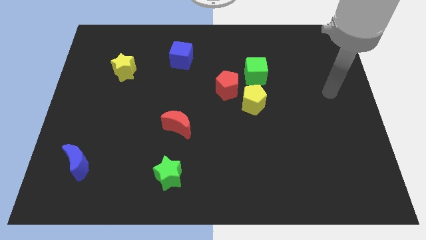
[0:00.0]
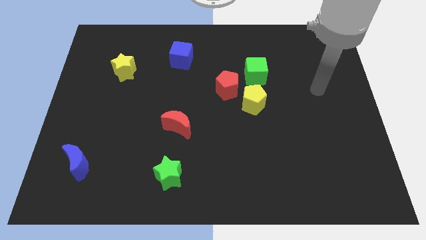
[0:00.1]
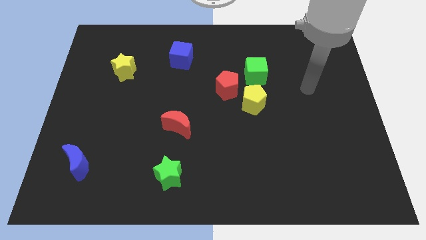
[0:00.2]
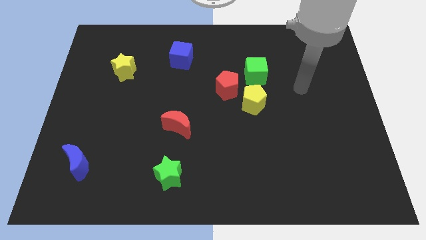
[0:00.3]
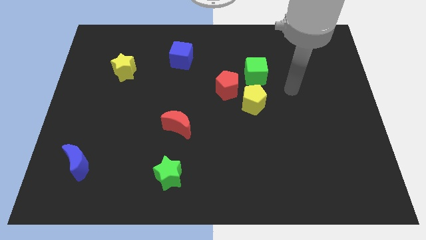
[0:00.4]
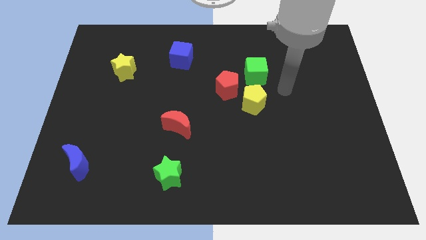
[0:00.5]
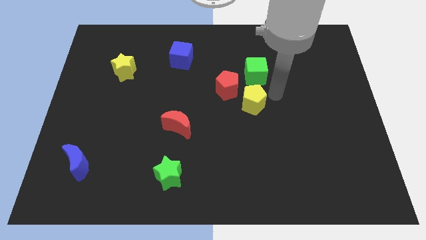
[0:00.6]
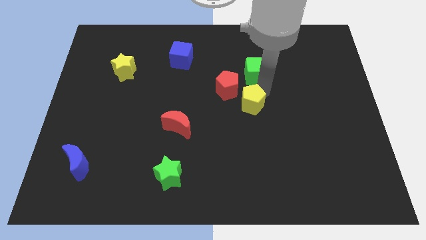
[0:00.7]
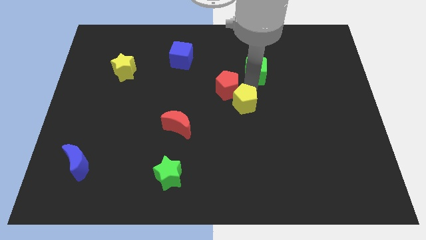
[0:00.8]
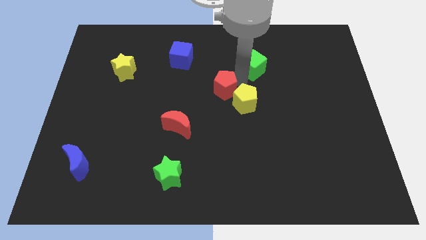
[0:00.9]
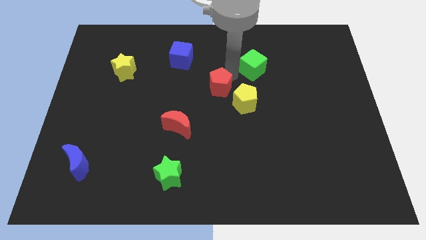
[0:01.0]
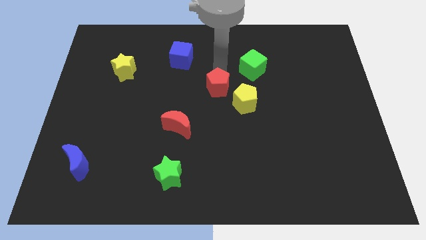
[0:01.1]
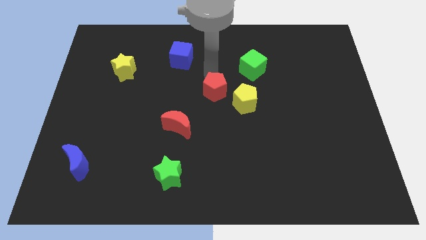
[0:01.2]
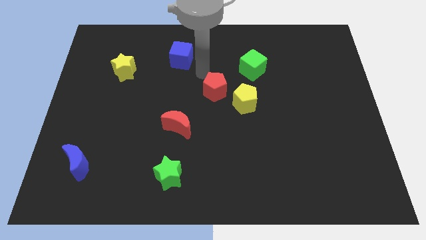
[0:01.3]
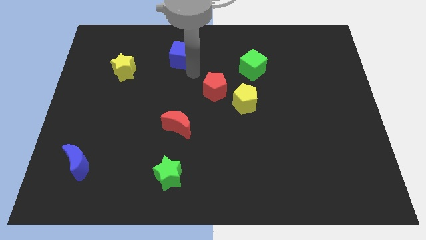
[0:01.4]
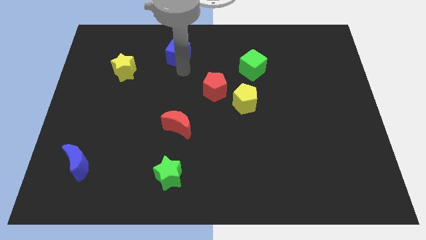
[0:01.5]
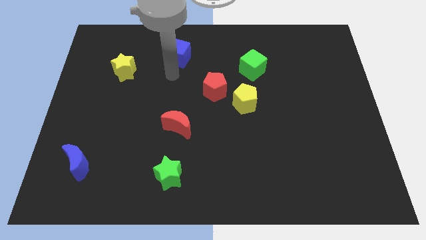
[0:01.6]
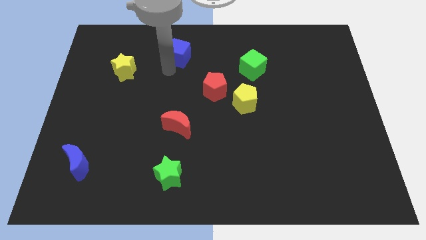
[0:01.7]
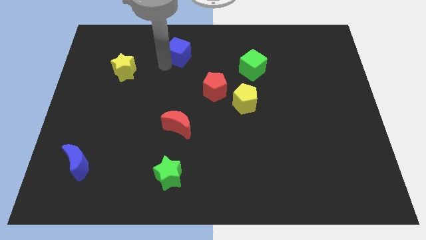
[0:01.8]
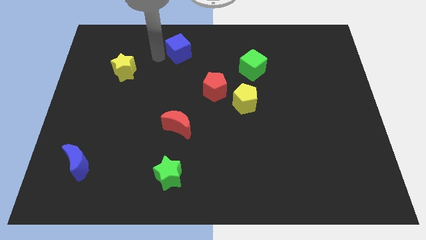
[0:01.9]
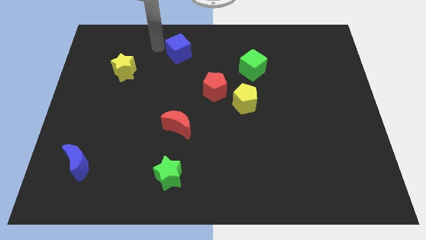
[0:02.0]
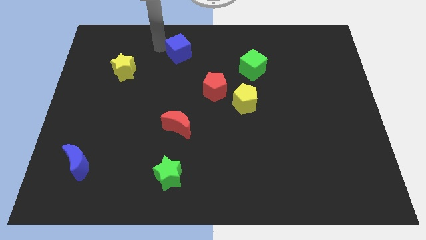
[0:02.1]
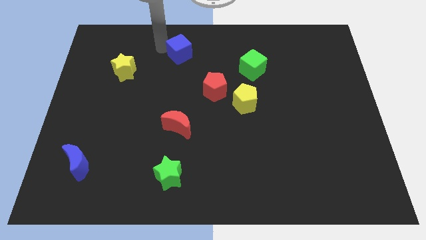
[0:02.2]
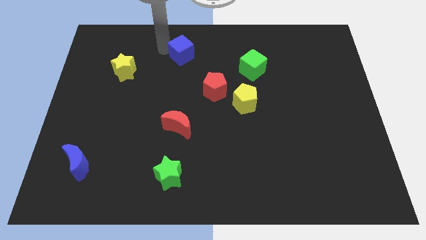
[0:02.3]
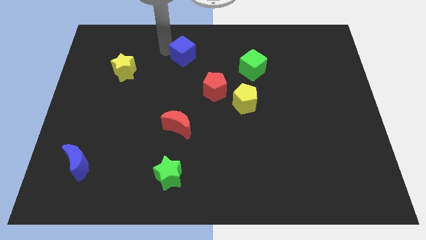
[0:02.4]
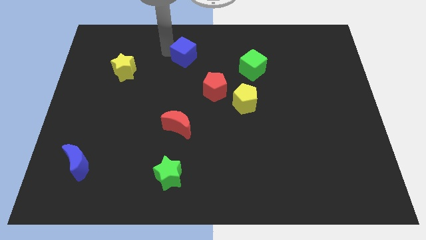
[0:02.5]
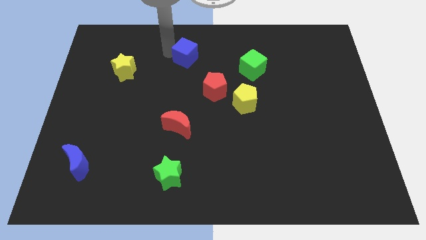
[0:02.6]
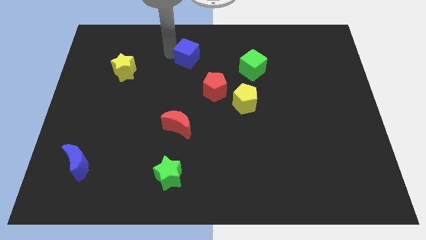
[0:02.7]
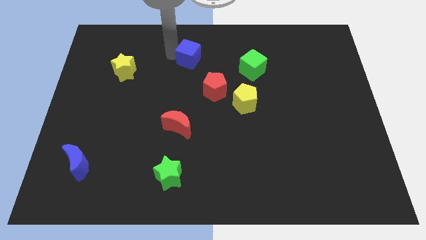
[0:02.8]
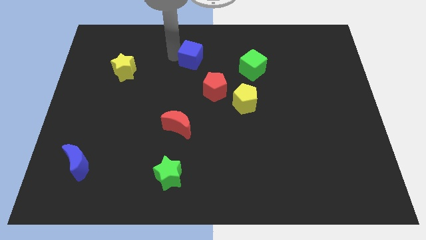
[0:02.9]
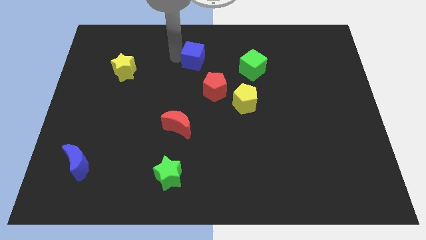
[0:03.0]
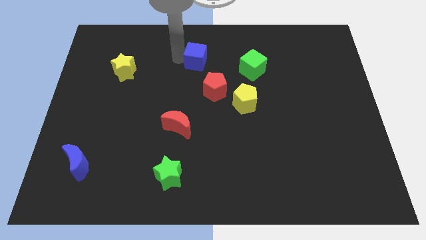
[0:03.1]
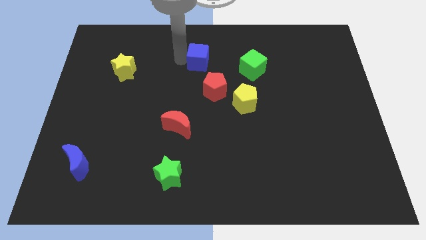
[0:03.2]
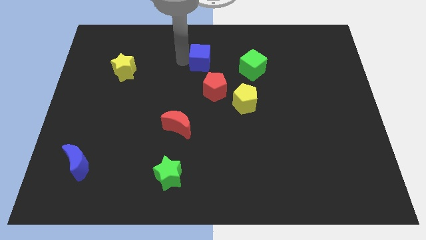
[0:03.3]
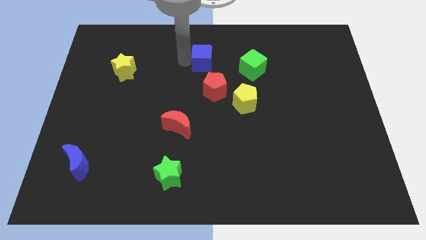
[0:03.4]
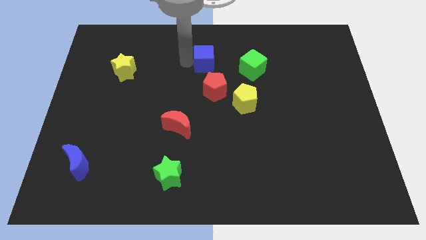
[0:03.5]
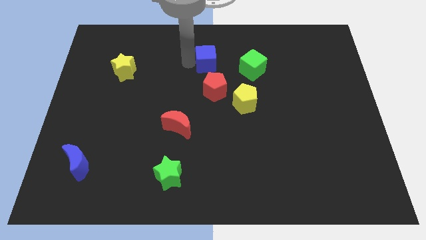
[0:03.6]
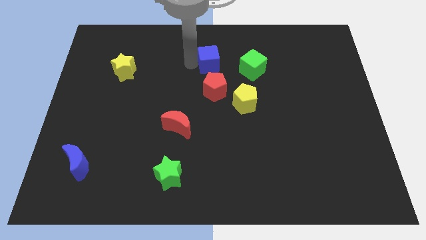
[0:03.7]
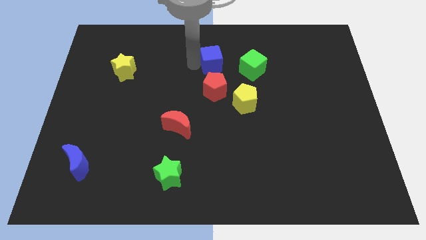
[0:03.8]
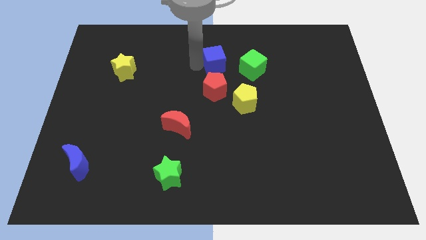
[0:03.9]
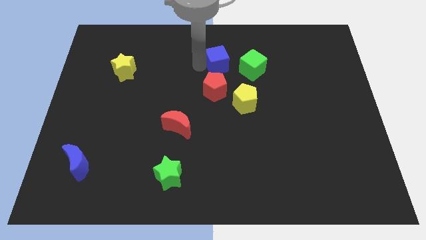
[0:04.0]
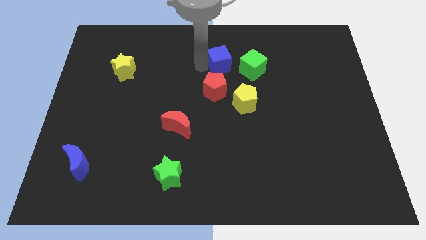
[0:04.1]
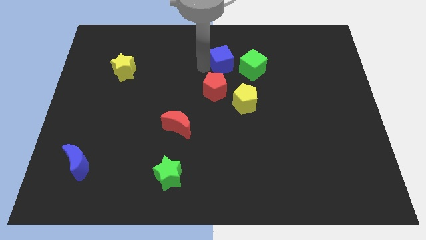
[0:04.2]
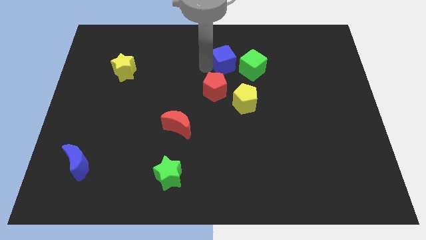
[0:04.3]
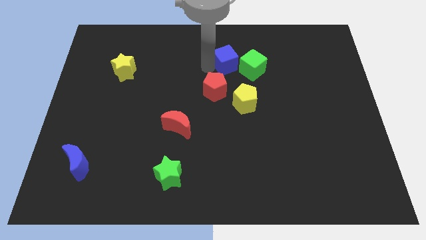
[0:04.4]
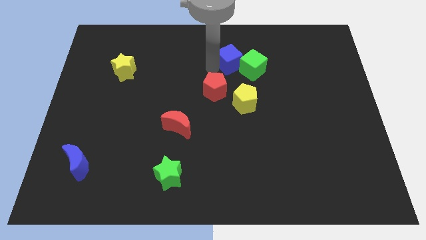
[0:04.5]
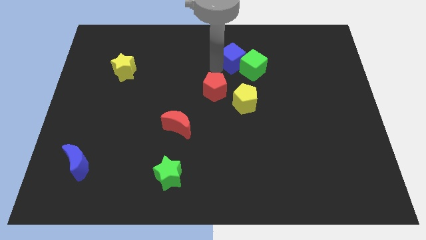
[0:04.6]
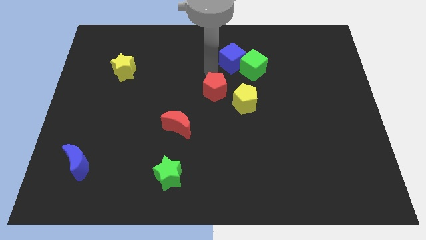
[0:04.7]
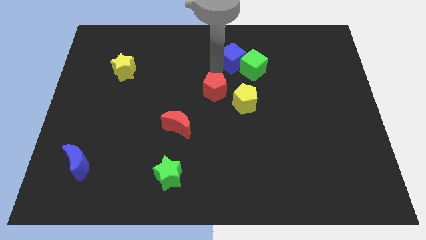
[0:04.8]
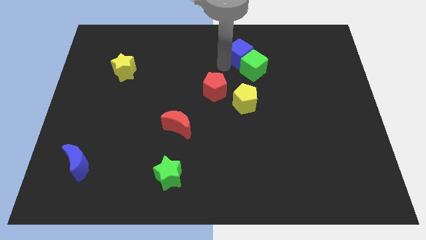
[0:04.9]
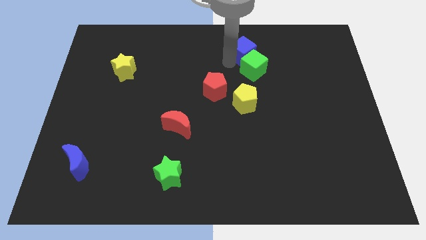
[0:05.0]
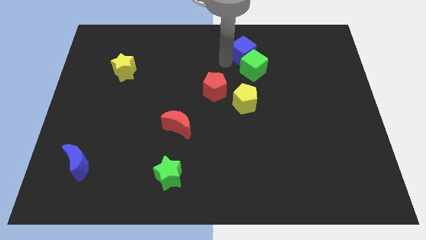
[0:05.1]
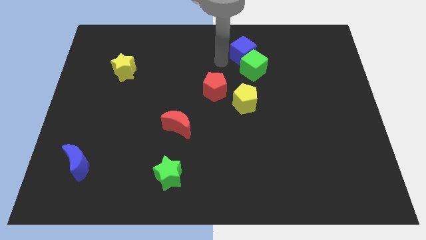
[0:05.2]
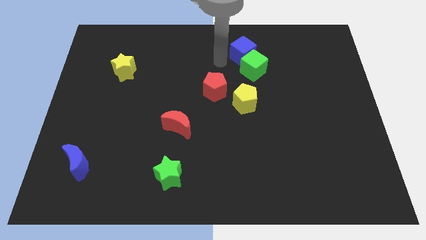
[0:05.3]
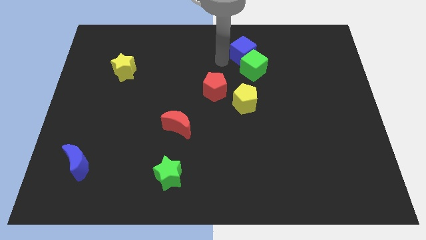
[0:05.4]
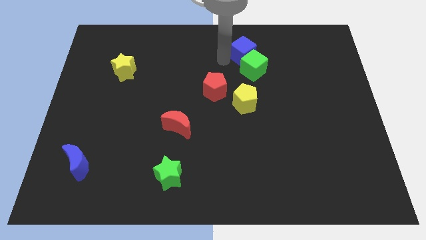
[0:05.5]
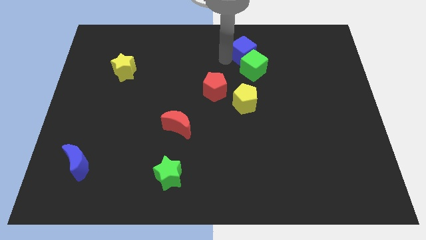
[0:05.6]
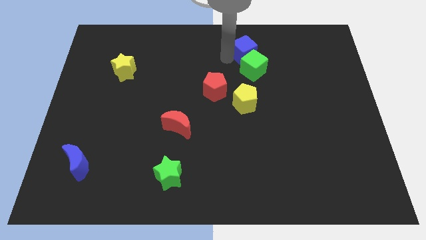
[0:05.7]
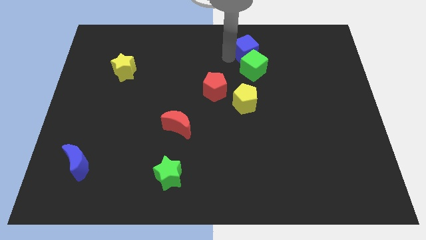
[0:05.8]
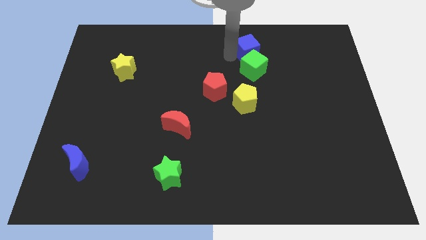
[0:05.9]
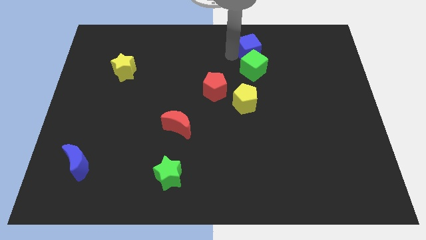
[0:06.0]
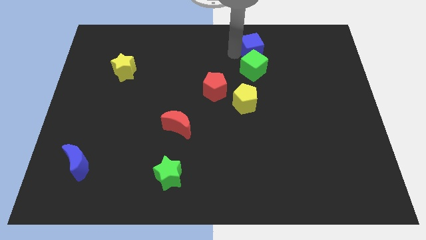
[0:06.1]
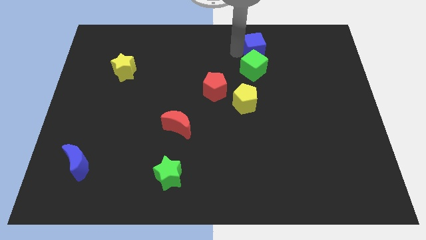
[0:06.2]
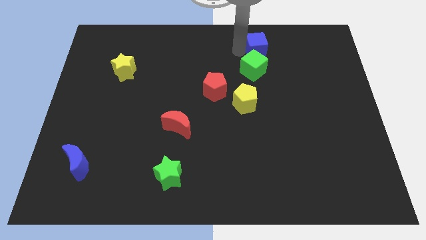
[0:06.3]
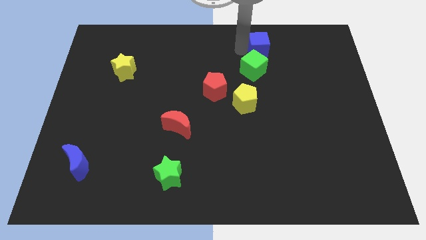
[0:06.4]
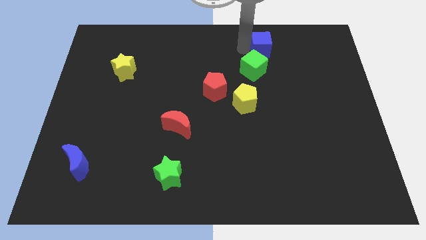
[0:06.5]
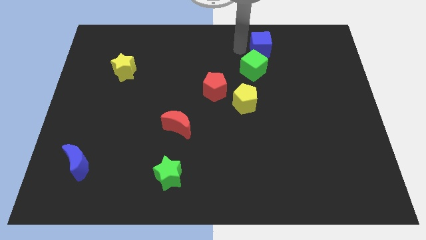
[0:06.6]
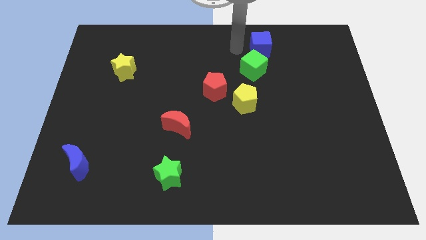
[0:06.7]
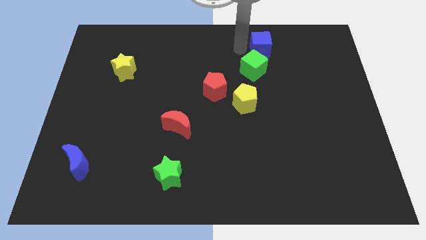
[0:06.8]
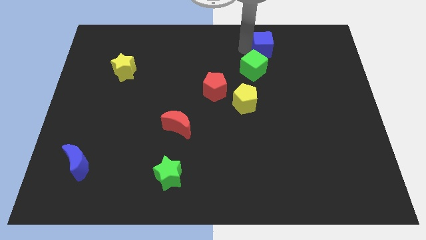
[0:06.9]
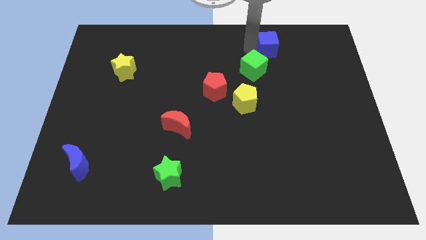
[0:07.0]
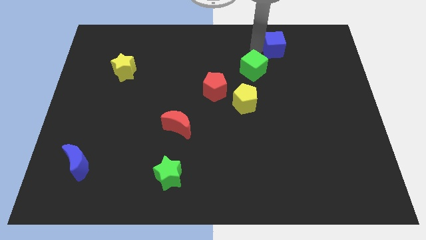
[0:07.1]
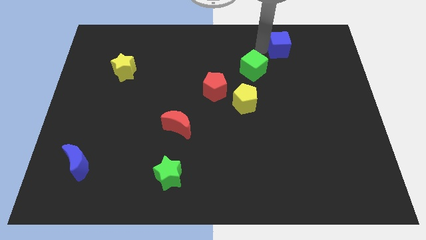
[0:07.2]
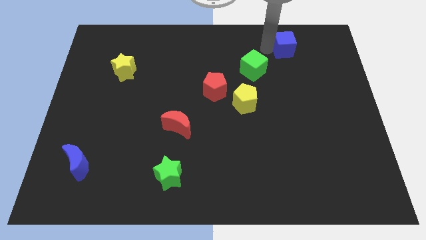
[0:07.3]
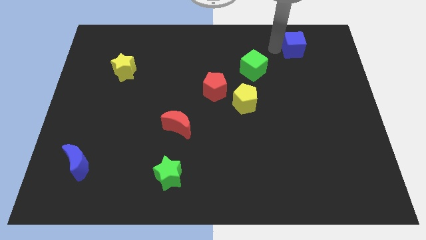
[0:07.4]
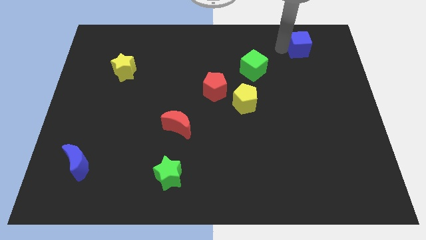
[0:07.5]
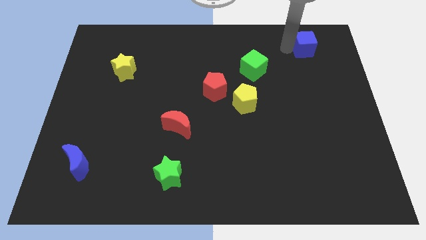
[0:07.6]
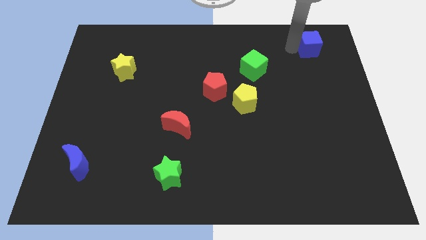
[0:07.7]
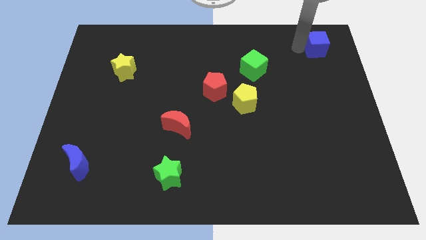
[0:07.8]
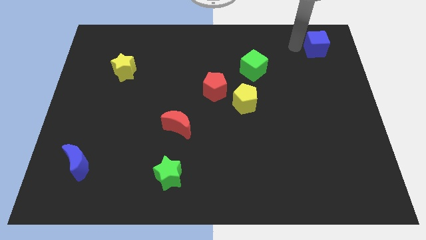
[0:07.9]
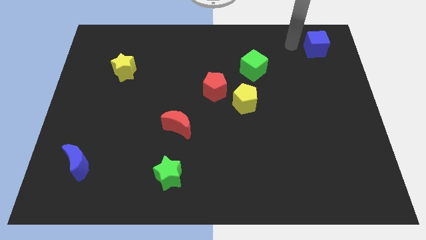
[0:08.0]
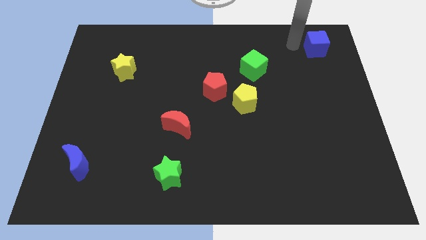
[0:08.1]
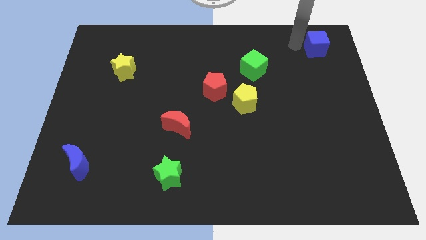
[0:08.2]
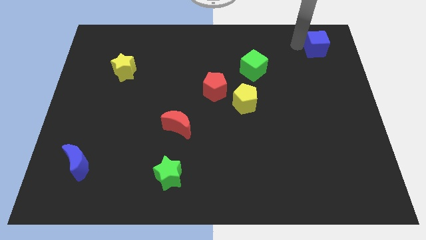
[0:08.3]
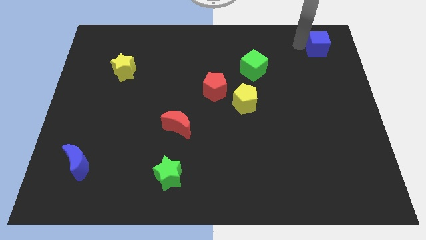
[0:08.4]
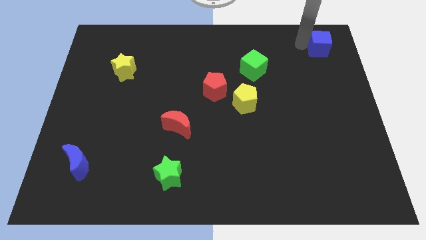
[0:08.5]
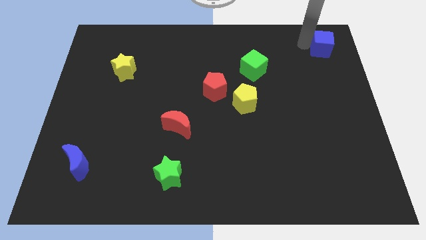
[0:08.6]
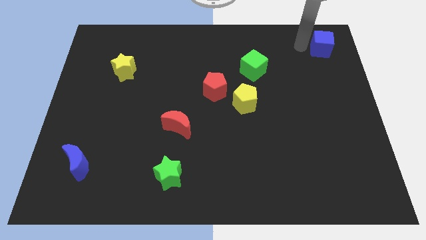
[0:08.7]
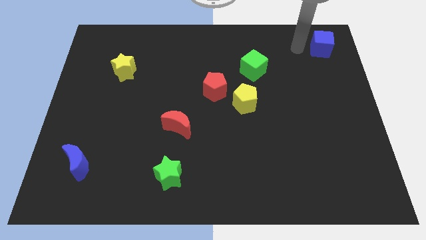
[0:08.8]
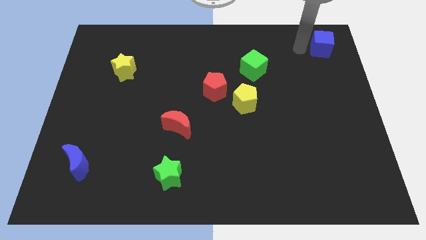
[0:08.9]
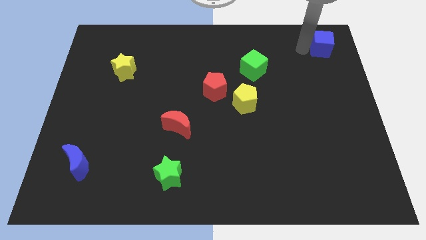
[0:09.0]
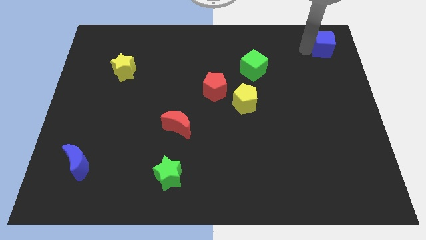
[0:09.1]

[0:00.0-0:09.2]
move the blue cube to the top right
